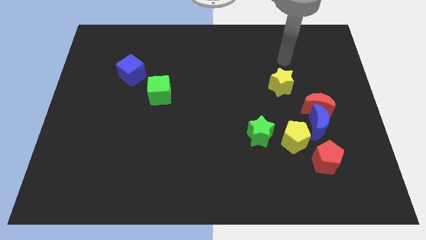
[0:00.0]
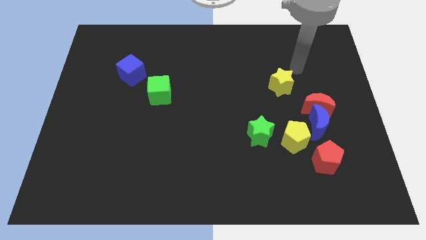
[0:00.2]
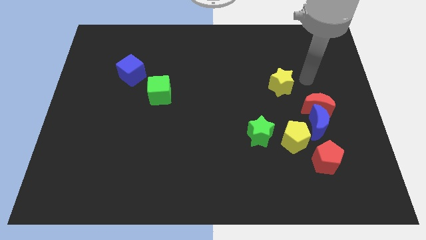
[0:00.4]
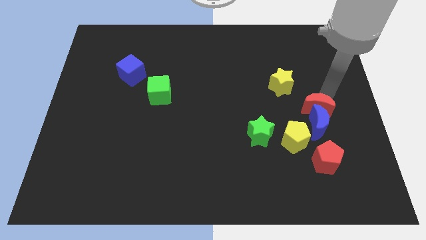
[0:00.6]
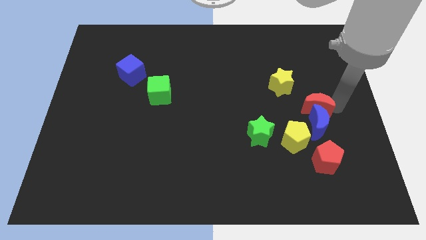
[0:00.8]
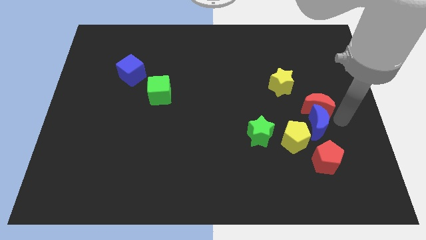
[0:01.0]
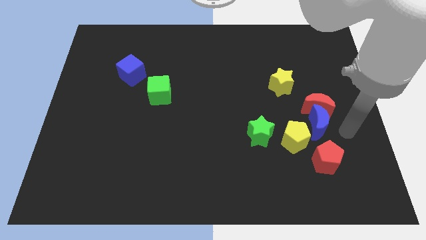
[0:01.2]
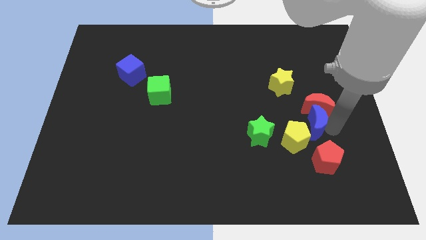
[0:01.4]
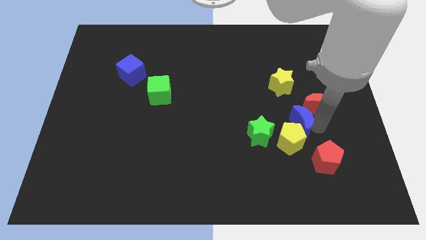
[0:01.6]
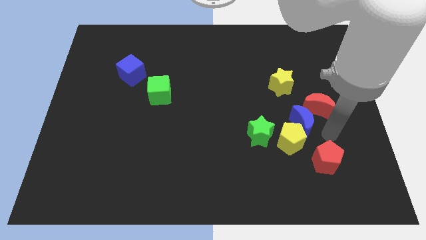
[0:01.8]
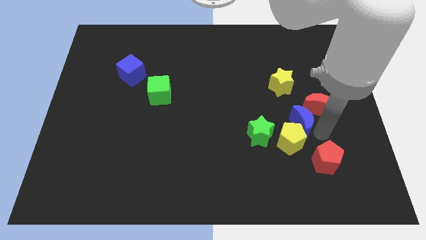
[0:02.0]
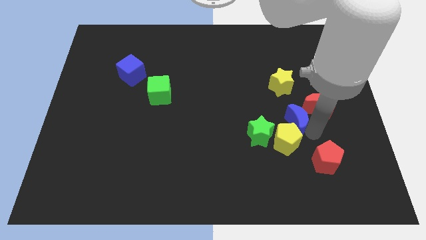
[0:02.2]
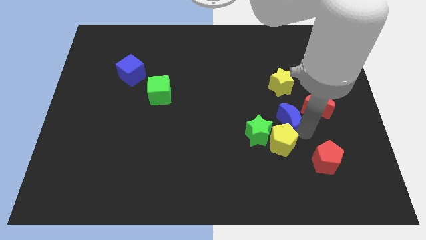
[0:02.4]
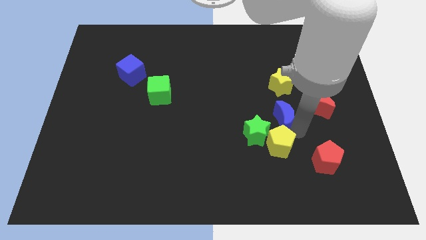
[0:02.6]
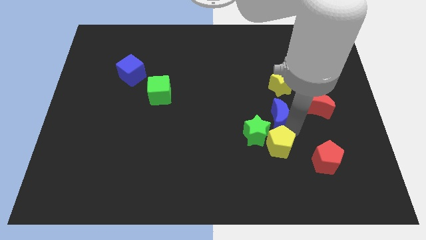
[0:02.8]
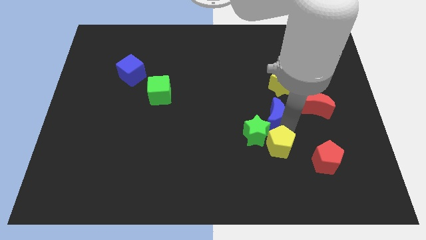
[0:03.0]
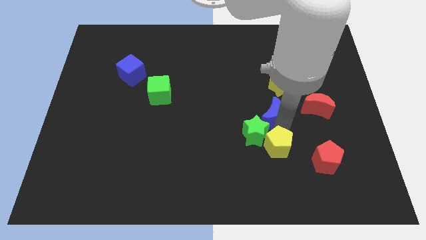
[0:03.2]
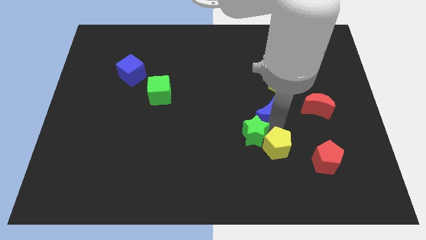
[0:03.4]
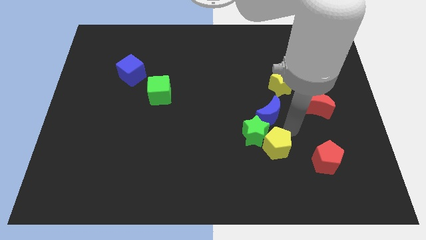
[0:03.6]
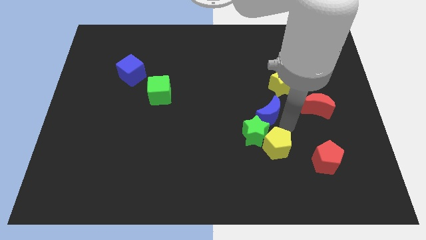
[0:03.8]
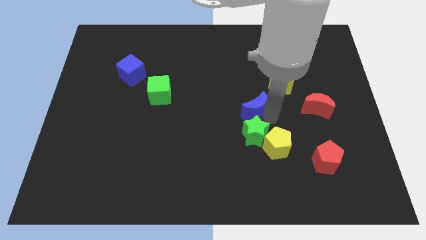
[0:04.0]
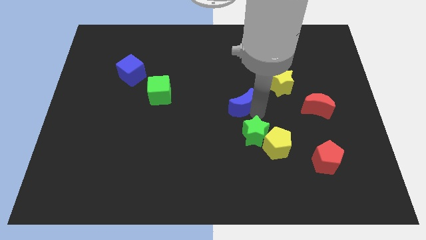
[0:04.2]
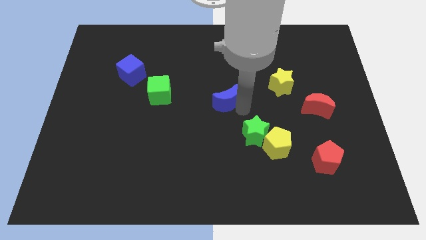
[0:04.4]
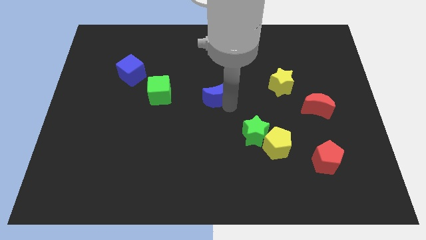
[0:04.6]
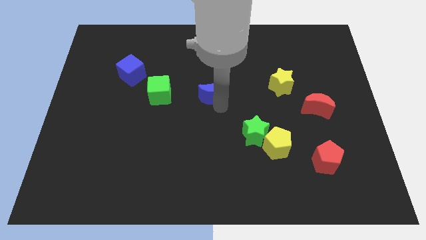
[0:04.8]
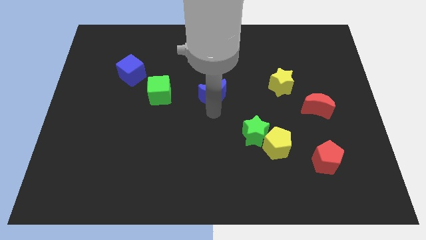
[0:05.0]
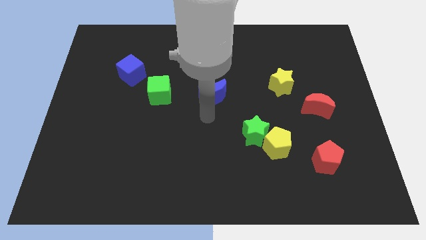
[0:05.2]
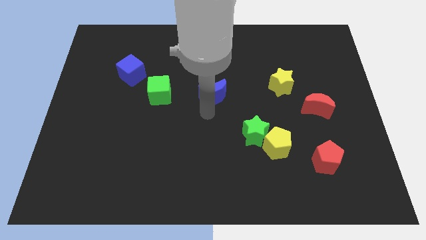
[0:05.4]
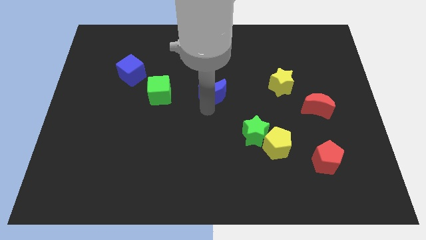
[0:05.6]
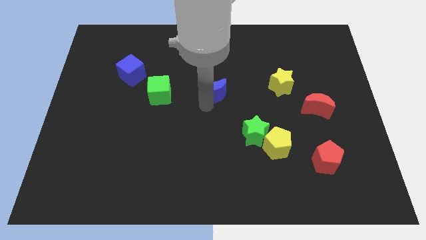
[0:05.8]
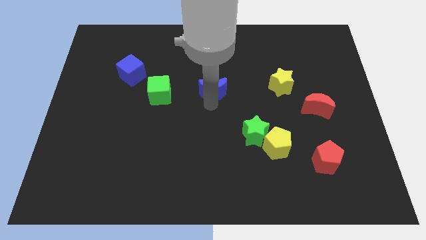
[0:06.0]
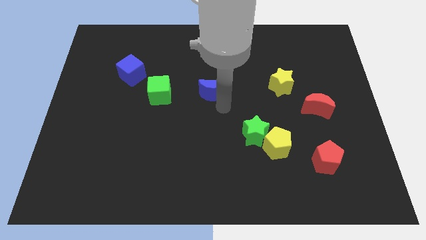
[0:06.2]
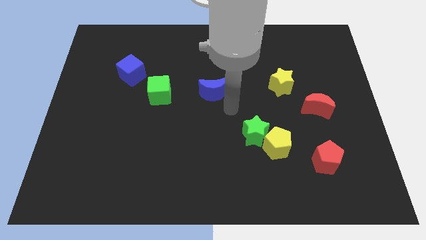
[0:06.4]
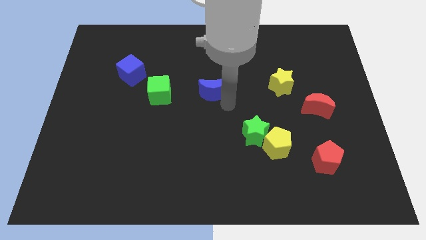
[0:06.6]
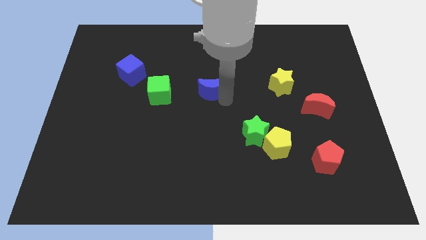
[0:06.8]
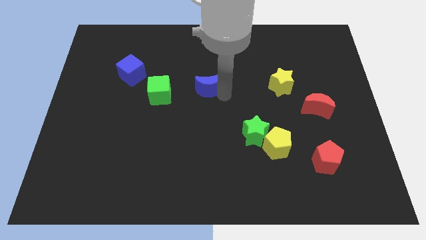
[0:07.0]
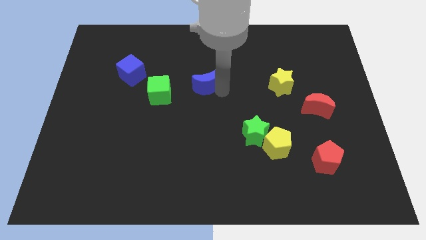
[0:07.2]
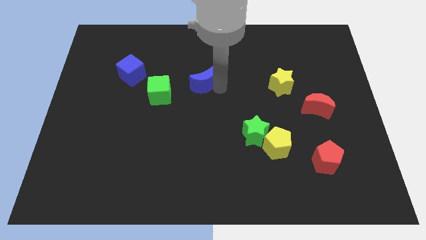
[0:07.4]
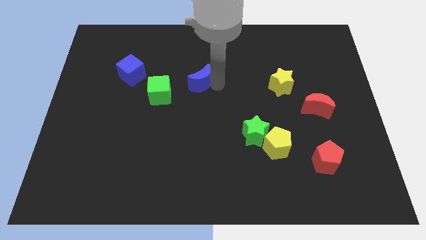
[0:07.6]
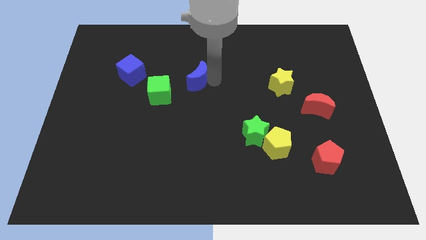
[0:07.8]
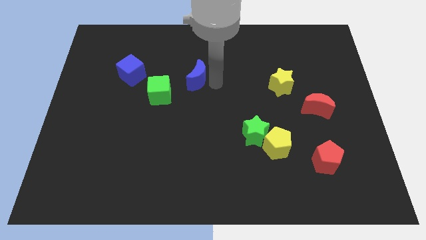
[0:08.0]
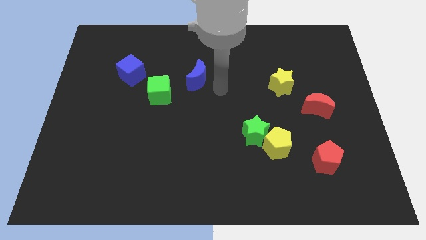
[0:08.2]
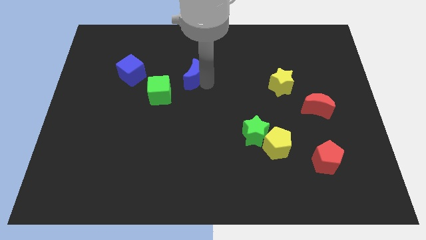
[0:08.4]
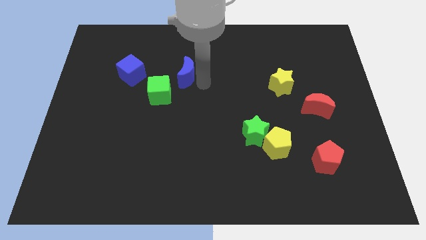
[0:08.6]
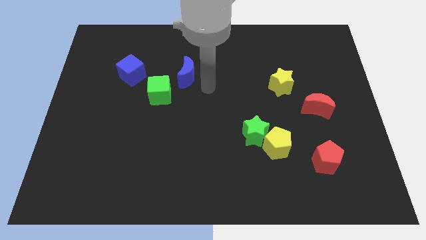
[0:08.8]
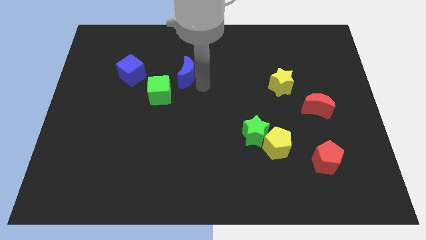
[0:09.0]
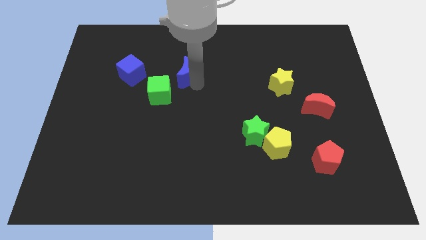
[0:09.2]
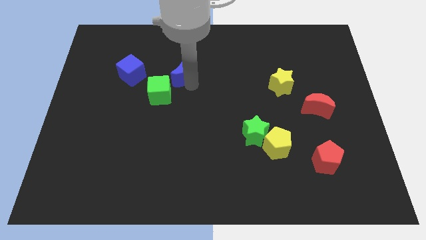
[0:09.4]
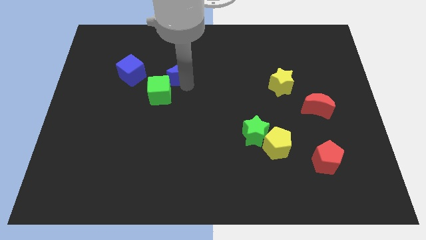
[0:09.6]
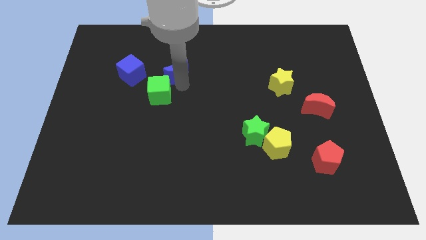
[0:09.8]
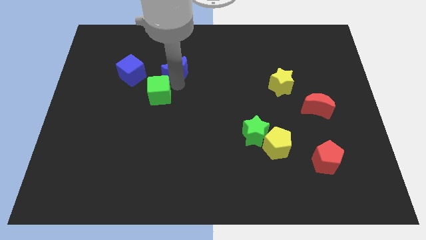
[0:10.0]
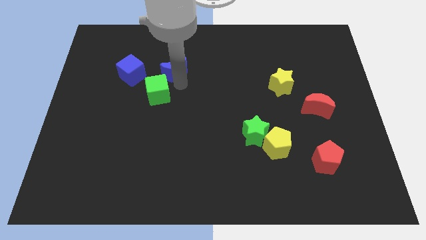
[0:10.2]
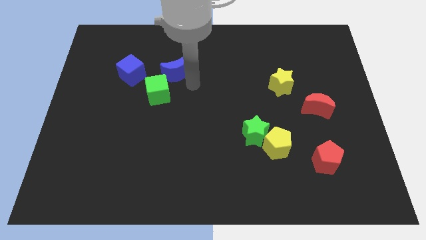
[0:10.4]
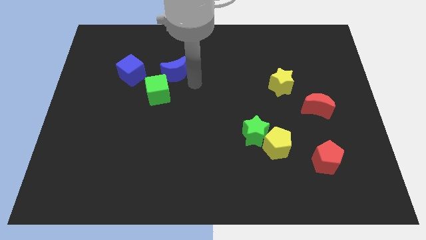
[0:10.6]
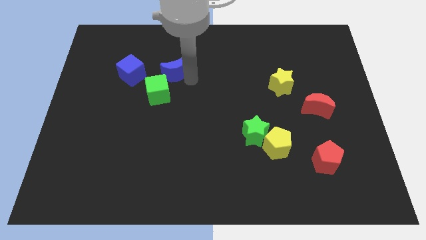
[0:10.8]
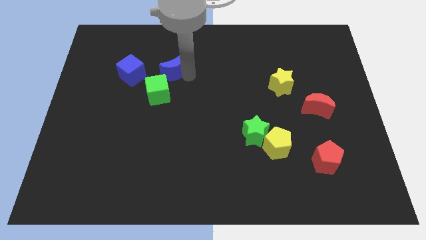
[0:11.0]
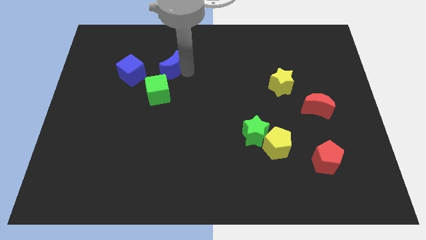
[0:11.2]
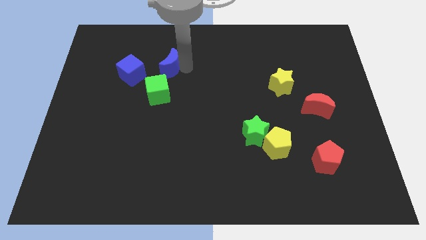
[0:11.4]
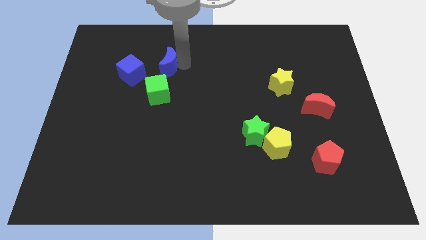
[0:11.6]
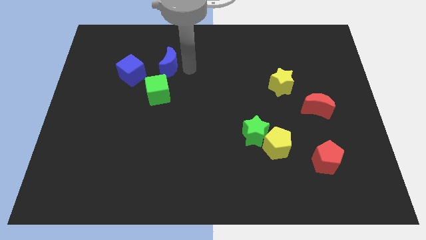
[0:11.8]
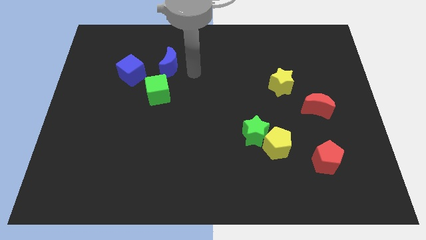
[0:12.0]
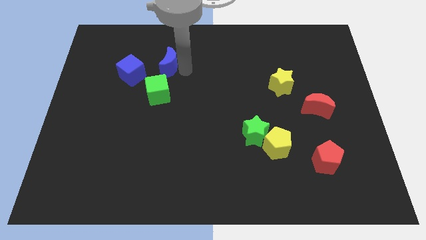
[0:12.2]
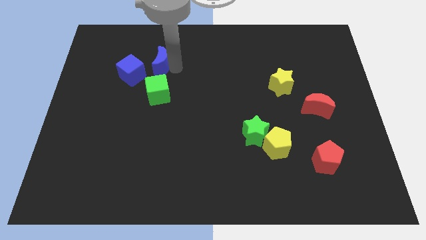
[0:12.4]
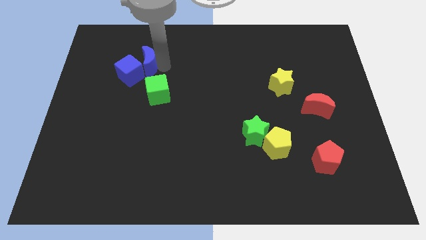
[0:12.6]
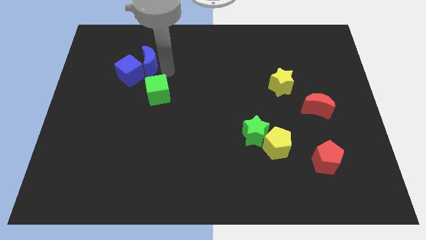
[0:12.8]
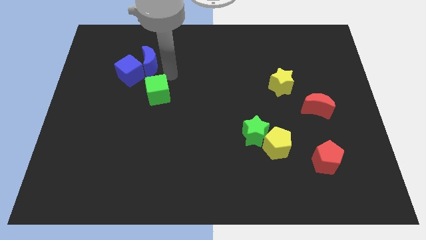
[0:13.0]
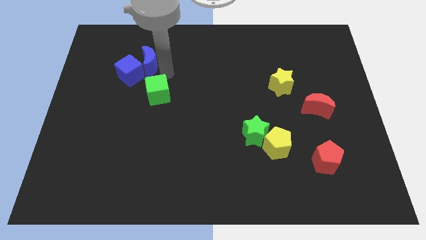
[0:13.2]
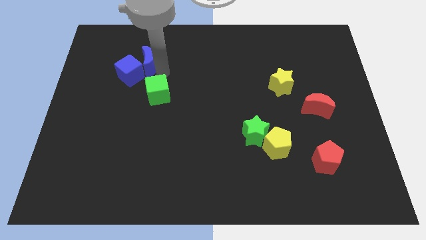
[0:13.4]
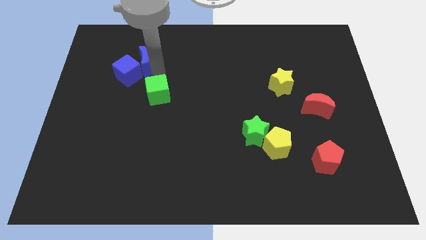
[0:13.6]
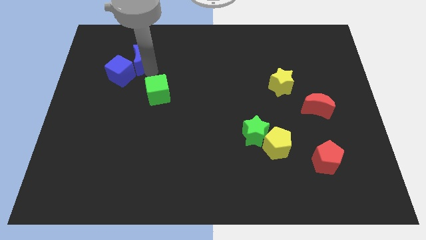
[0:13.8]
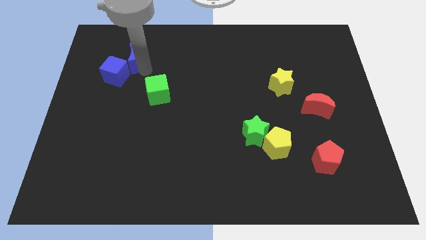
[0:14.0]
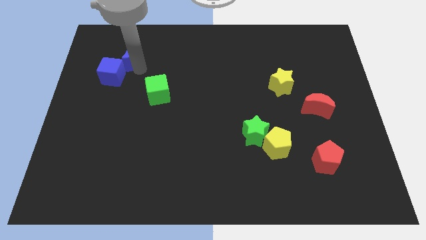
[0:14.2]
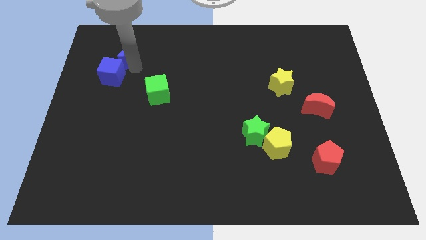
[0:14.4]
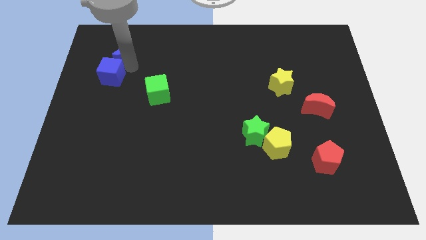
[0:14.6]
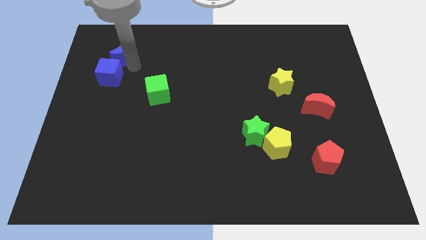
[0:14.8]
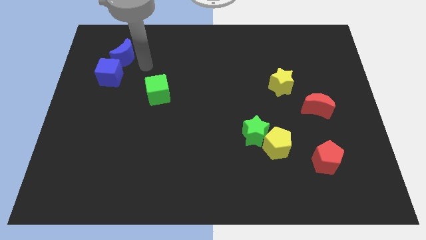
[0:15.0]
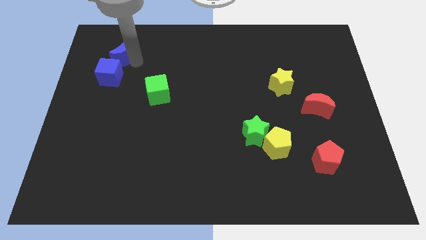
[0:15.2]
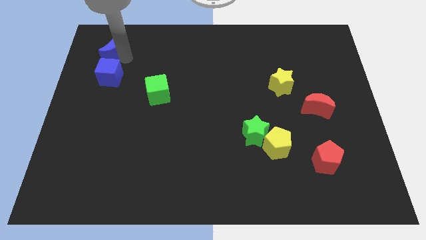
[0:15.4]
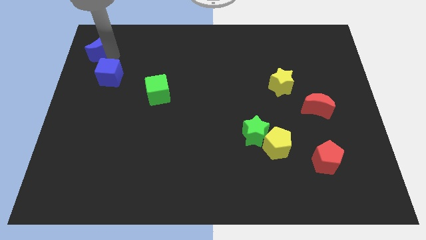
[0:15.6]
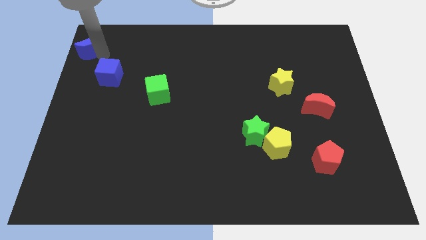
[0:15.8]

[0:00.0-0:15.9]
slide the blue moon to the top left
